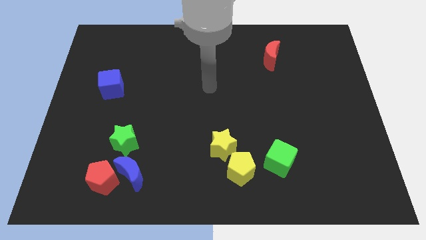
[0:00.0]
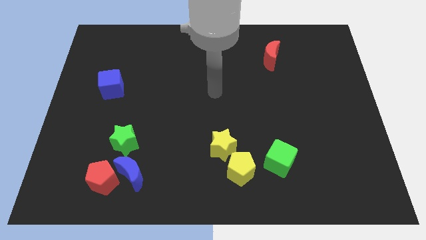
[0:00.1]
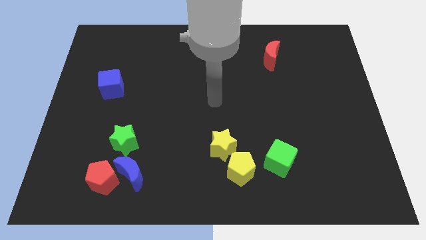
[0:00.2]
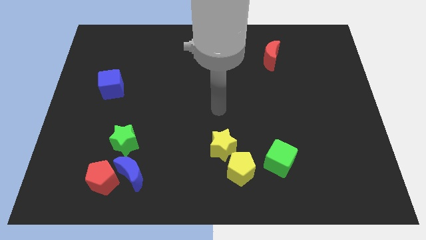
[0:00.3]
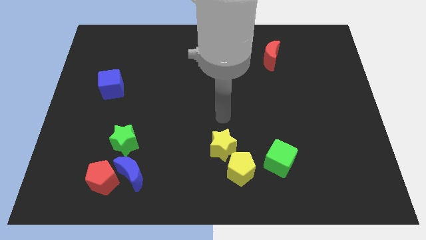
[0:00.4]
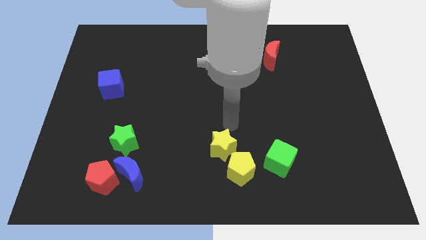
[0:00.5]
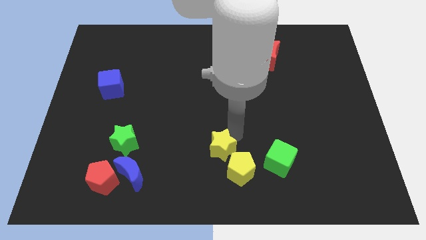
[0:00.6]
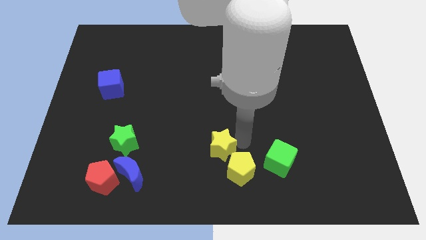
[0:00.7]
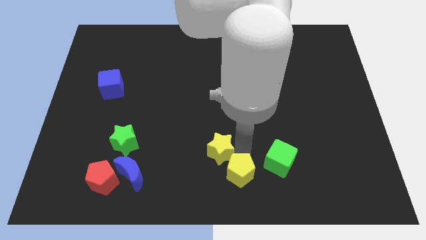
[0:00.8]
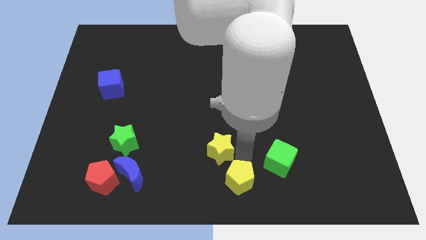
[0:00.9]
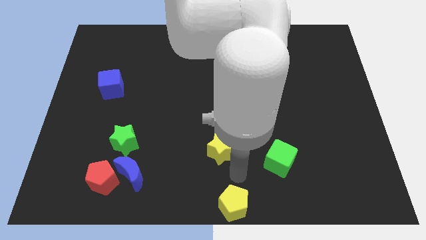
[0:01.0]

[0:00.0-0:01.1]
move the yellow star away from the yellow pentagon

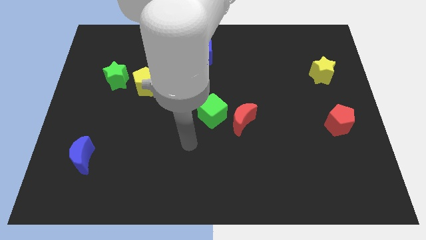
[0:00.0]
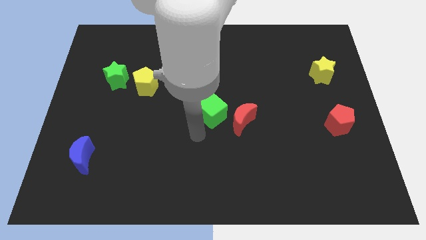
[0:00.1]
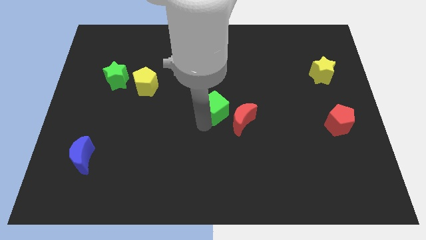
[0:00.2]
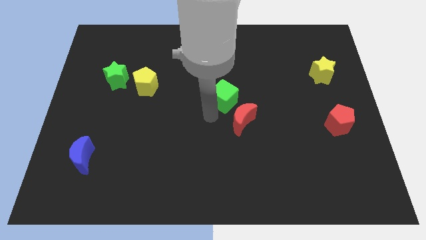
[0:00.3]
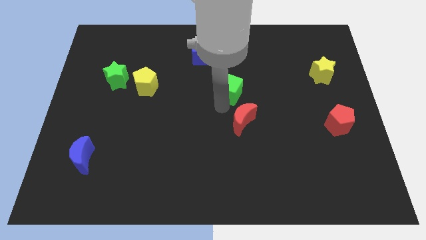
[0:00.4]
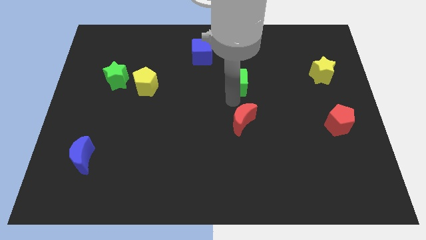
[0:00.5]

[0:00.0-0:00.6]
move the red moon away from the green cube

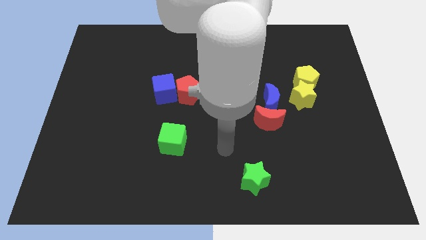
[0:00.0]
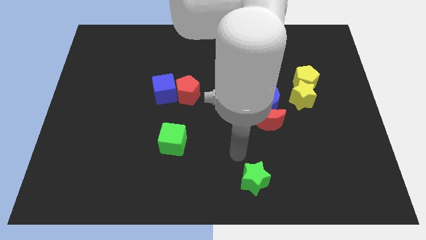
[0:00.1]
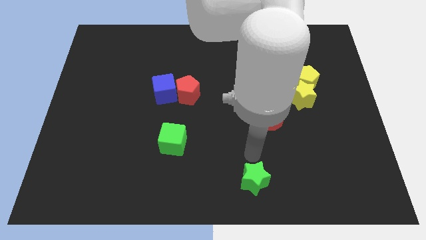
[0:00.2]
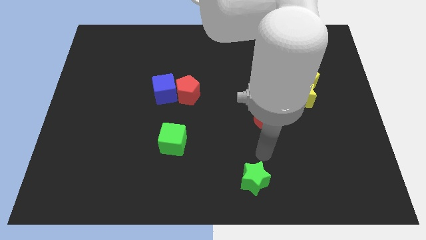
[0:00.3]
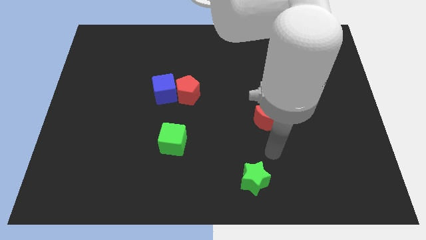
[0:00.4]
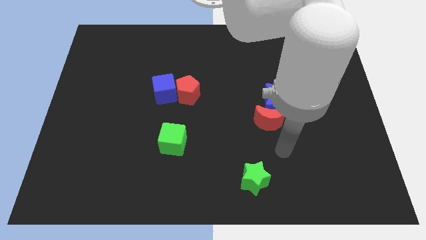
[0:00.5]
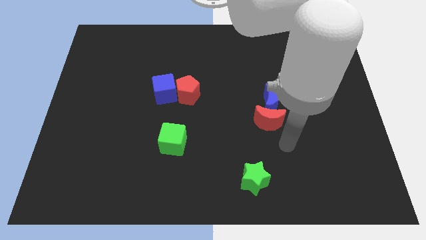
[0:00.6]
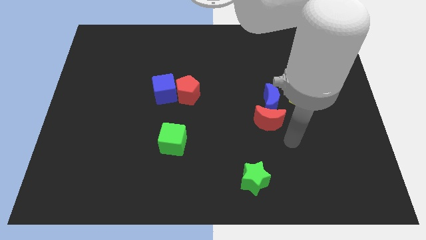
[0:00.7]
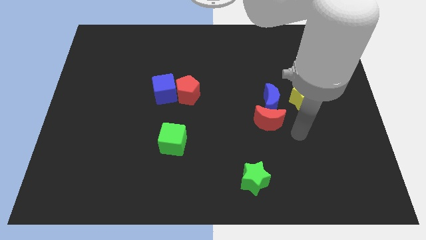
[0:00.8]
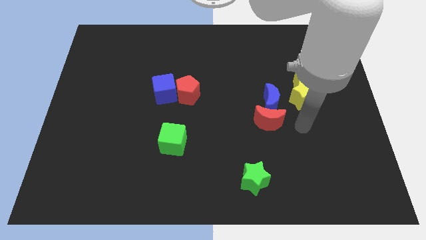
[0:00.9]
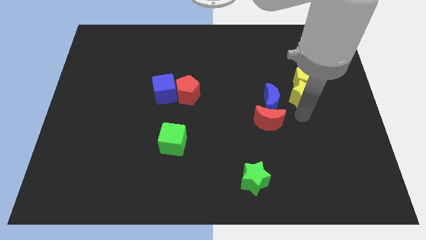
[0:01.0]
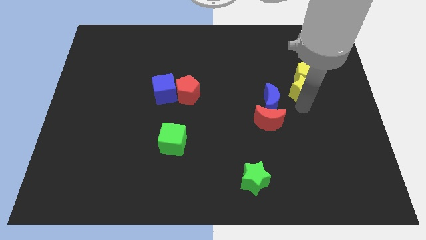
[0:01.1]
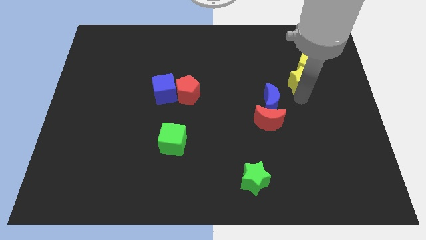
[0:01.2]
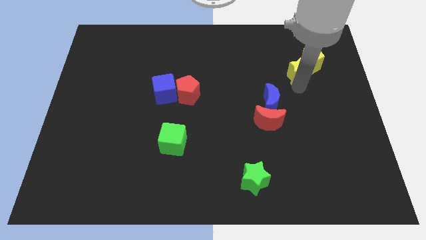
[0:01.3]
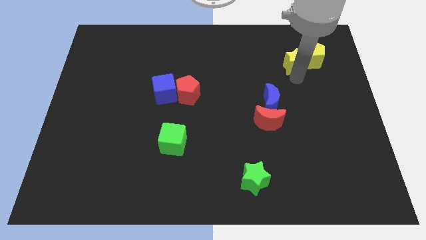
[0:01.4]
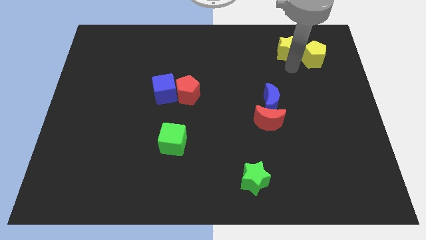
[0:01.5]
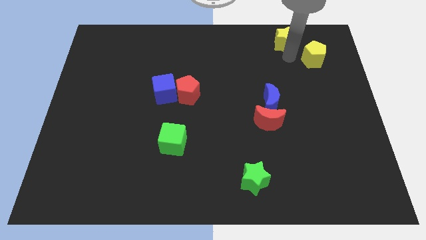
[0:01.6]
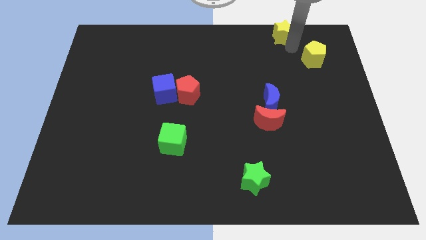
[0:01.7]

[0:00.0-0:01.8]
pull the yellow pentagon apart from the yellow star

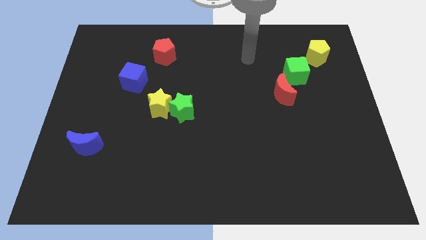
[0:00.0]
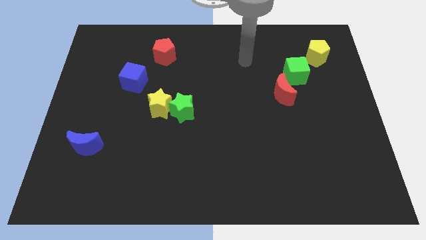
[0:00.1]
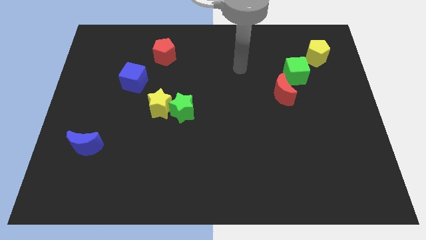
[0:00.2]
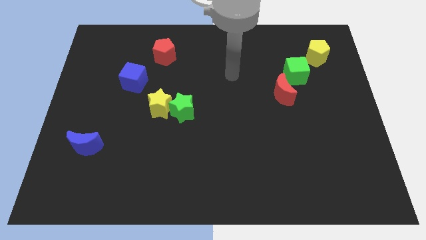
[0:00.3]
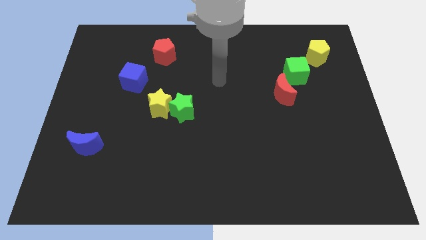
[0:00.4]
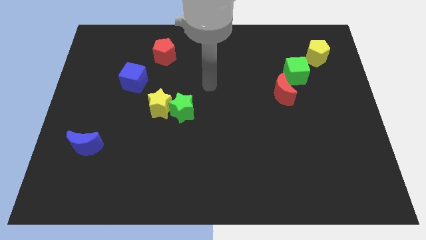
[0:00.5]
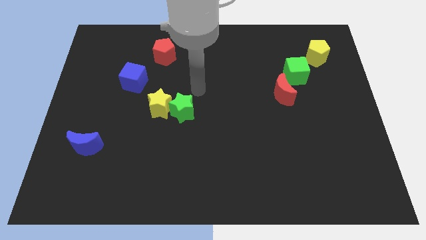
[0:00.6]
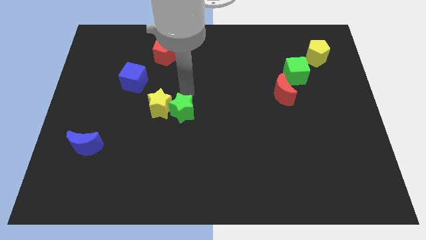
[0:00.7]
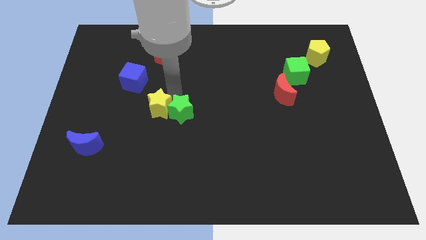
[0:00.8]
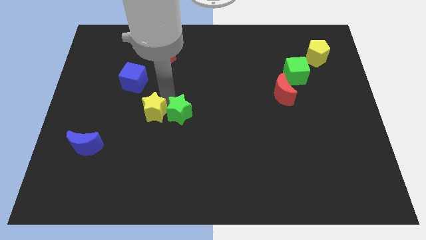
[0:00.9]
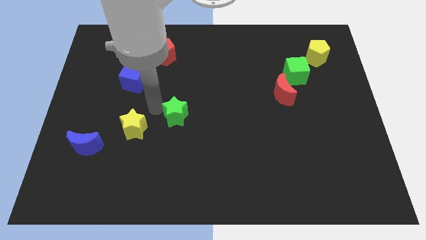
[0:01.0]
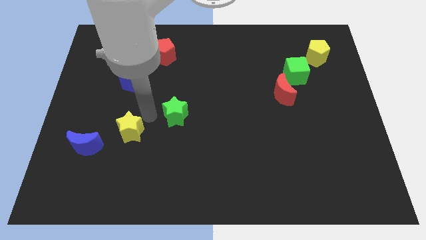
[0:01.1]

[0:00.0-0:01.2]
move the green star away from the yellow star

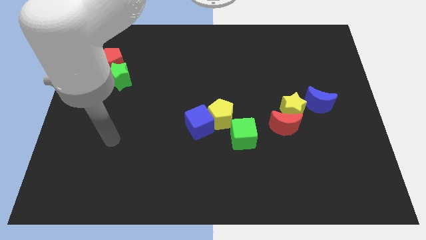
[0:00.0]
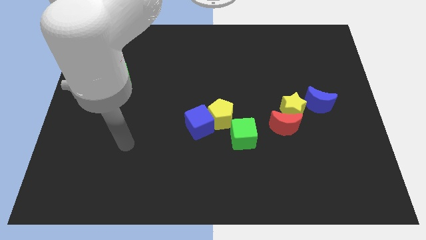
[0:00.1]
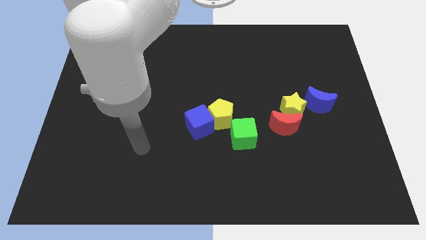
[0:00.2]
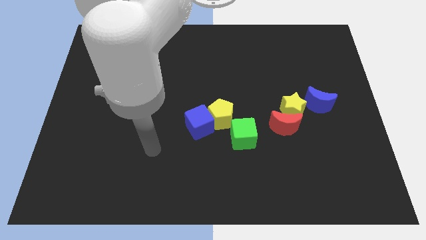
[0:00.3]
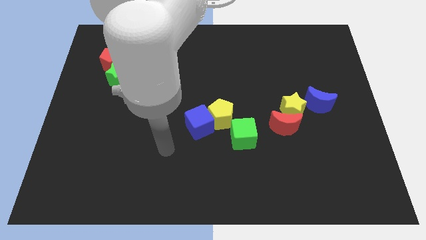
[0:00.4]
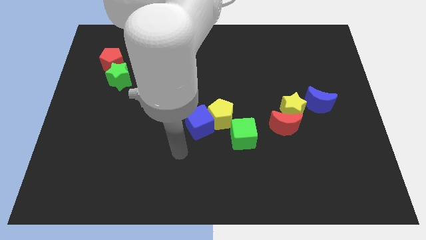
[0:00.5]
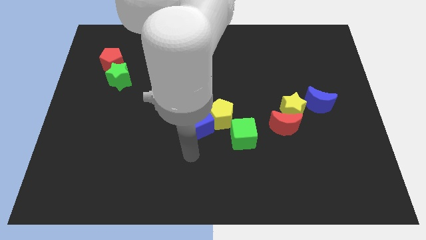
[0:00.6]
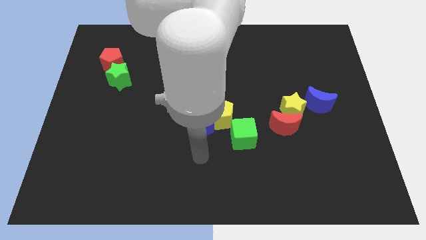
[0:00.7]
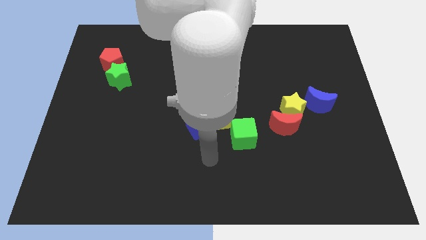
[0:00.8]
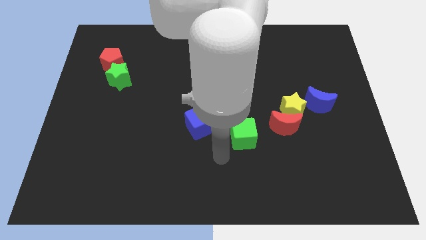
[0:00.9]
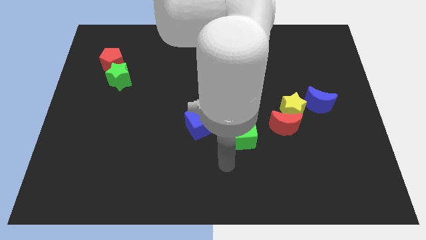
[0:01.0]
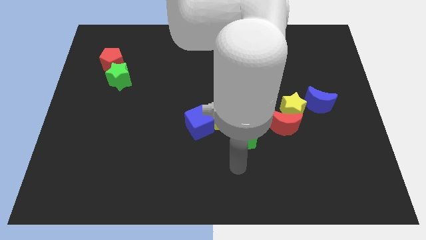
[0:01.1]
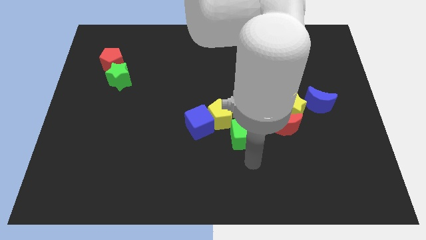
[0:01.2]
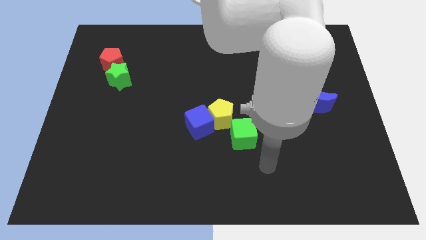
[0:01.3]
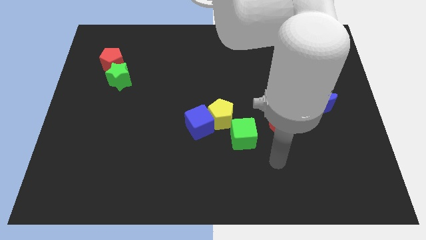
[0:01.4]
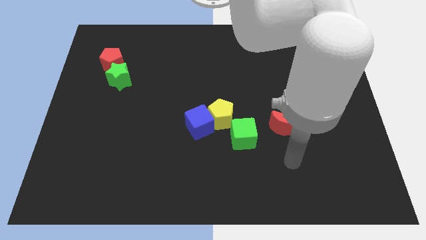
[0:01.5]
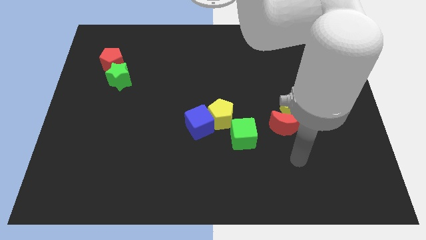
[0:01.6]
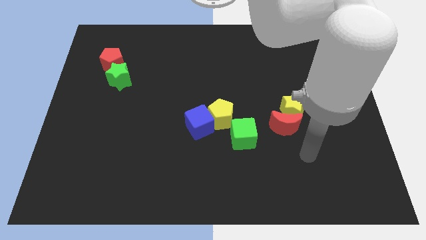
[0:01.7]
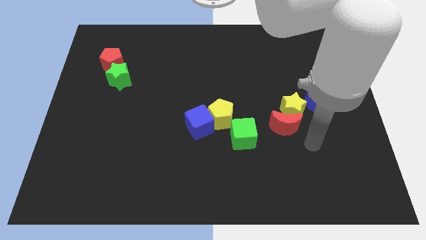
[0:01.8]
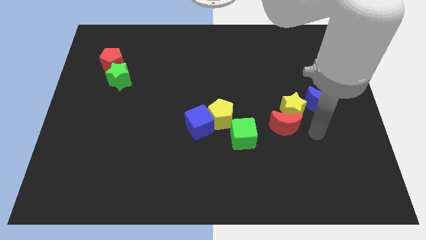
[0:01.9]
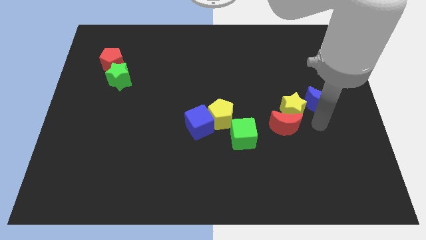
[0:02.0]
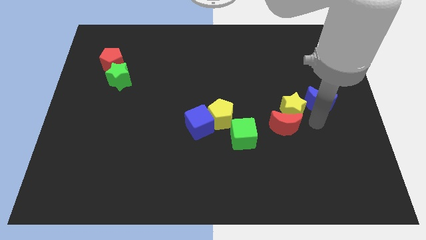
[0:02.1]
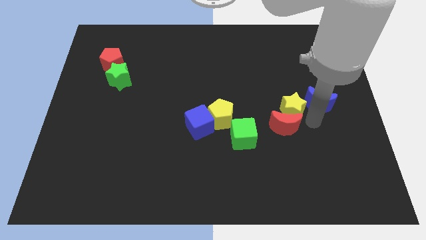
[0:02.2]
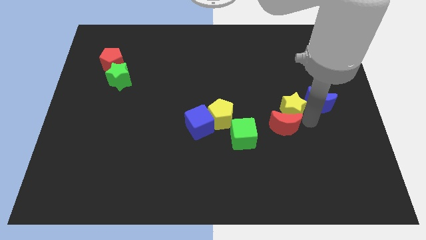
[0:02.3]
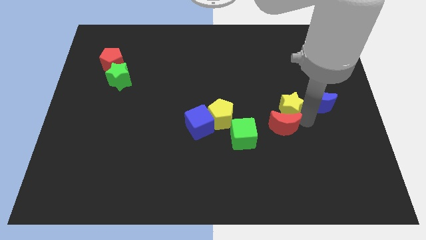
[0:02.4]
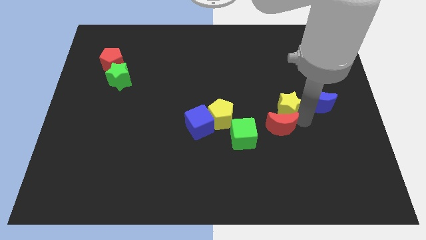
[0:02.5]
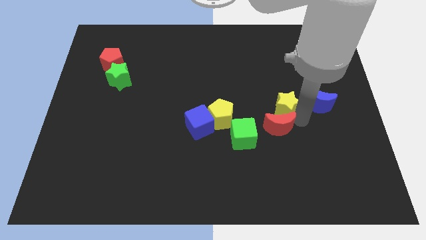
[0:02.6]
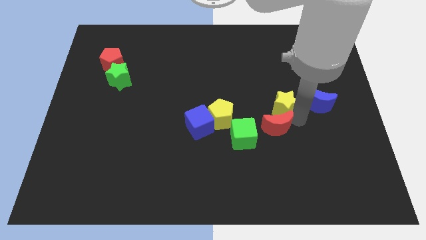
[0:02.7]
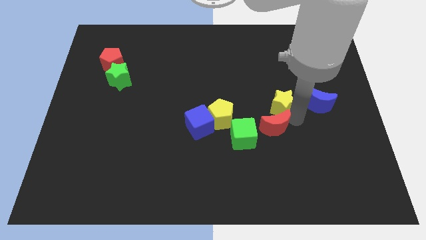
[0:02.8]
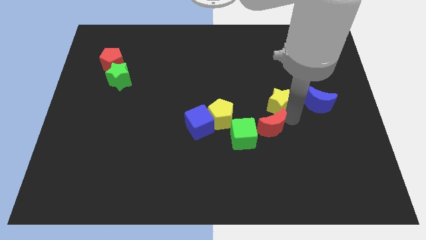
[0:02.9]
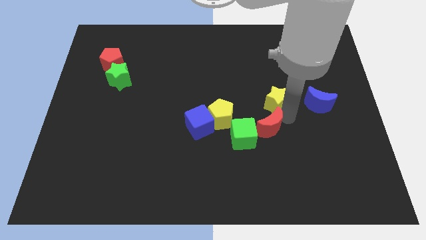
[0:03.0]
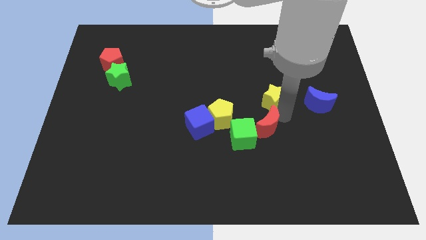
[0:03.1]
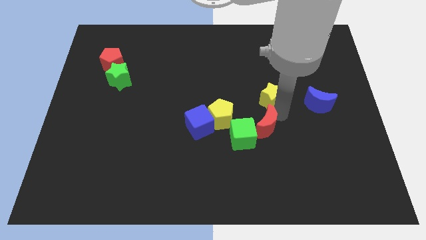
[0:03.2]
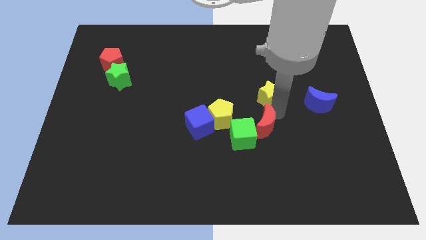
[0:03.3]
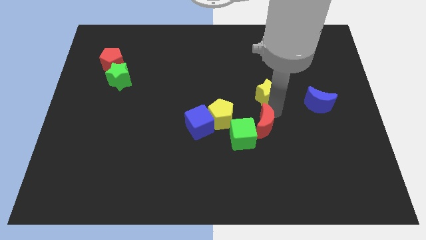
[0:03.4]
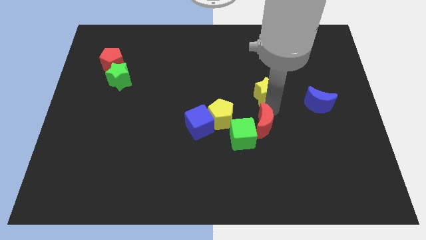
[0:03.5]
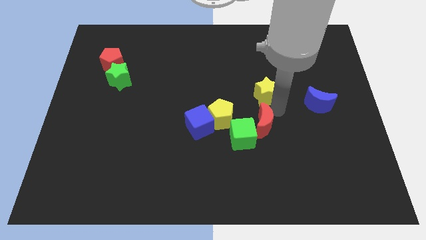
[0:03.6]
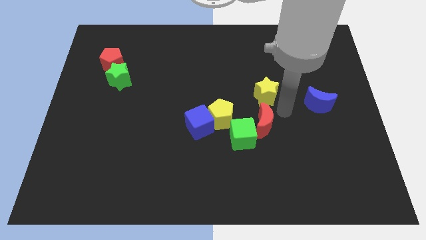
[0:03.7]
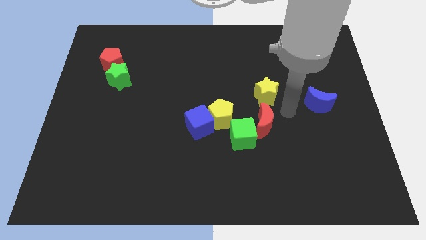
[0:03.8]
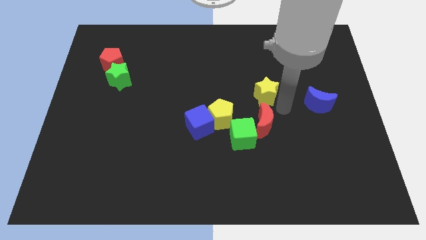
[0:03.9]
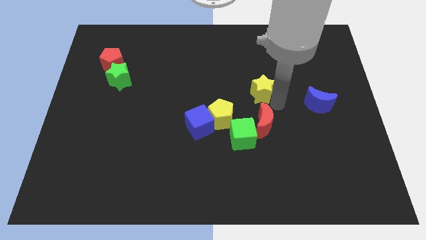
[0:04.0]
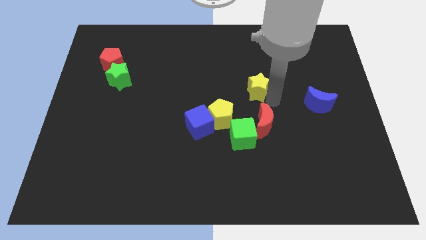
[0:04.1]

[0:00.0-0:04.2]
separate the yellow star from the red moon and blue moon

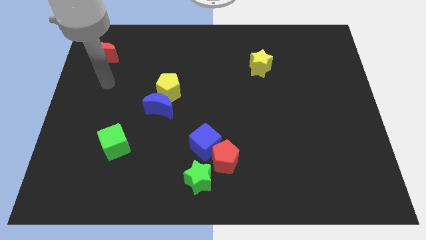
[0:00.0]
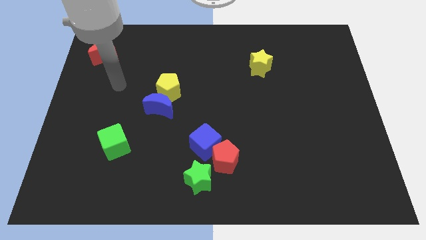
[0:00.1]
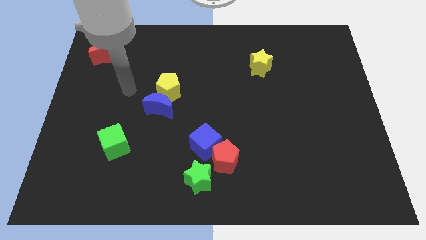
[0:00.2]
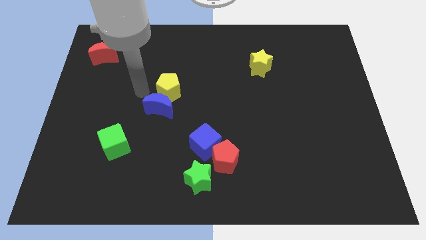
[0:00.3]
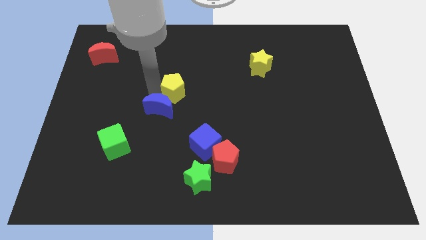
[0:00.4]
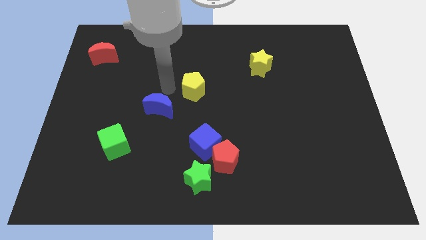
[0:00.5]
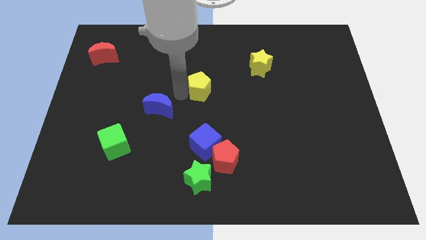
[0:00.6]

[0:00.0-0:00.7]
pull the blue moon apart from the yellow pentagon
